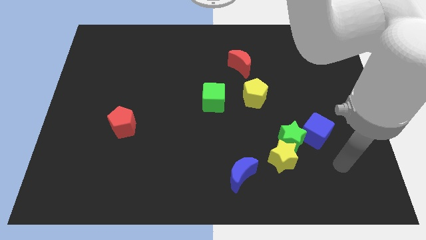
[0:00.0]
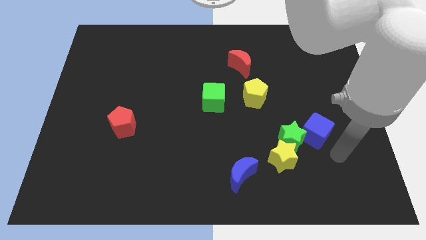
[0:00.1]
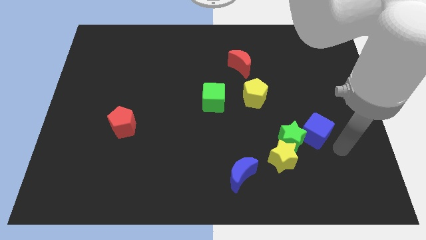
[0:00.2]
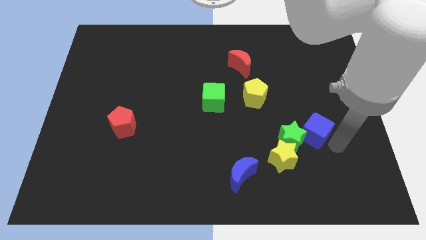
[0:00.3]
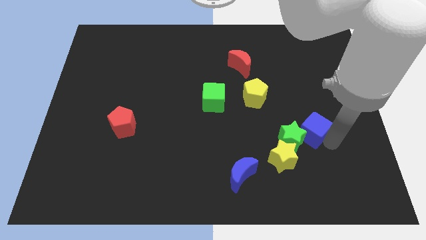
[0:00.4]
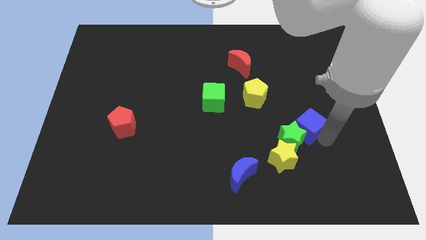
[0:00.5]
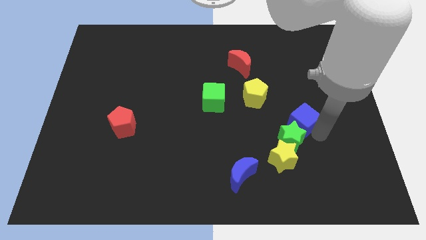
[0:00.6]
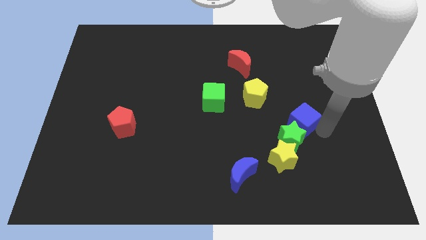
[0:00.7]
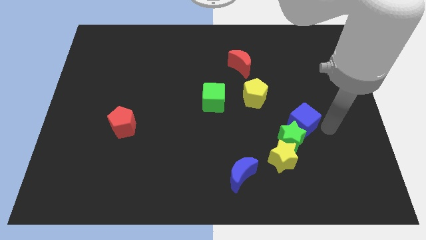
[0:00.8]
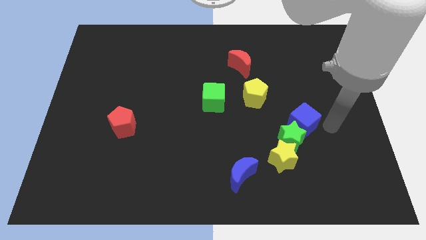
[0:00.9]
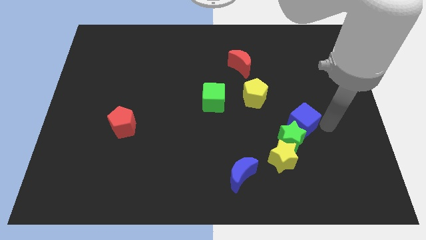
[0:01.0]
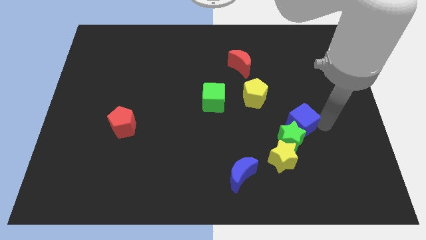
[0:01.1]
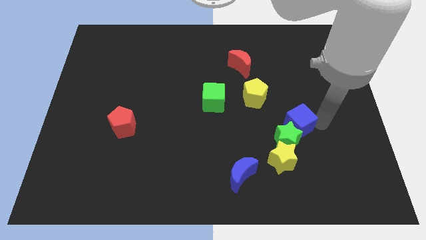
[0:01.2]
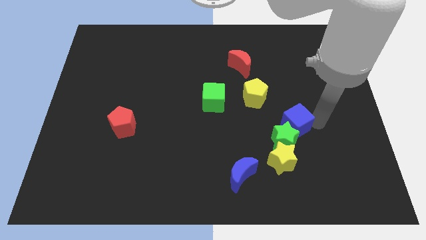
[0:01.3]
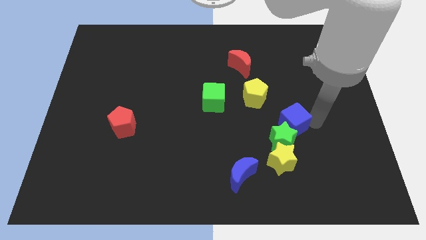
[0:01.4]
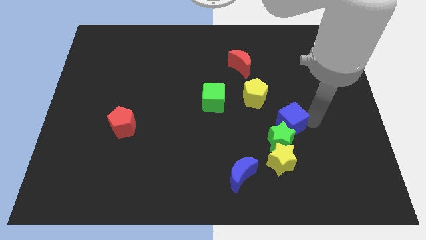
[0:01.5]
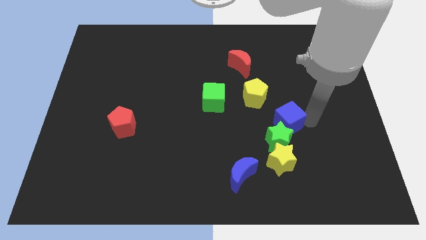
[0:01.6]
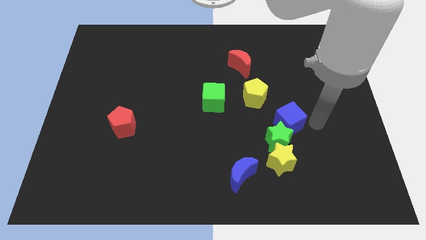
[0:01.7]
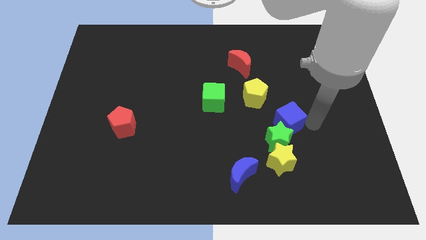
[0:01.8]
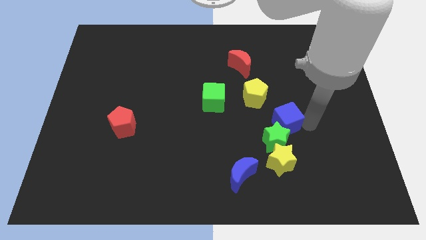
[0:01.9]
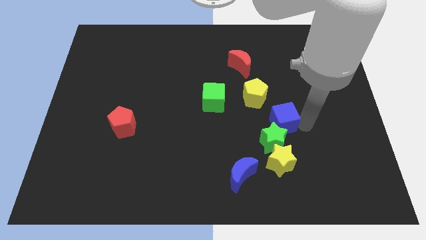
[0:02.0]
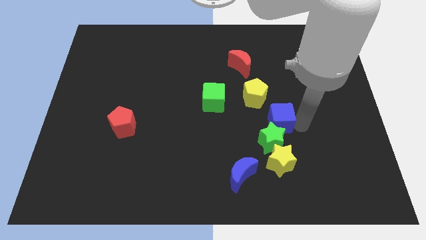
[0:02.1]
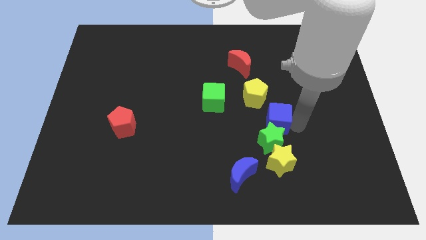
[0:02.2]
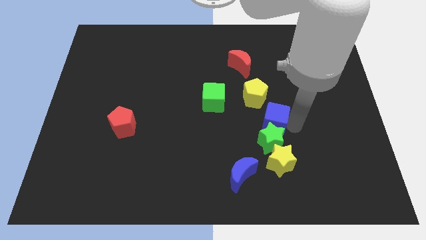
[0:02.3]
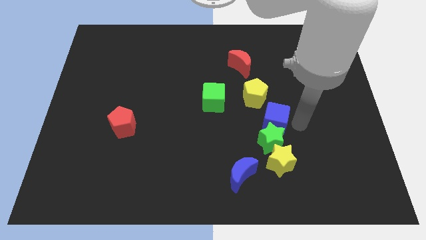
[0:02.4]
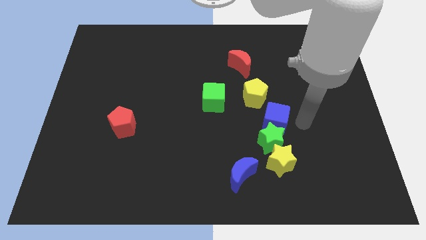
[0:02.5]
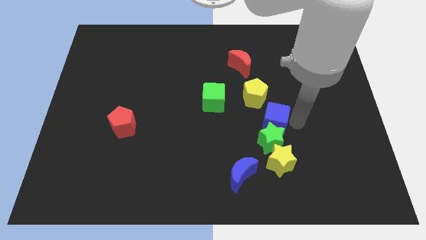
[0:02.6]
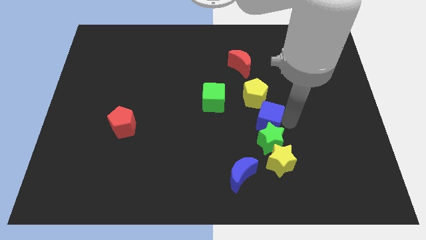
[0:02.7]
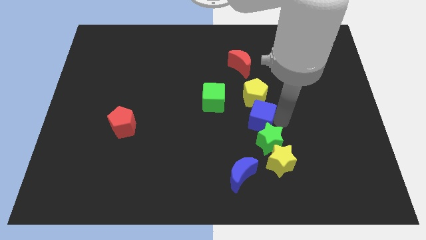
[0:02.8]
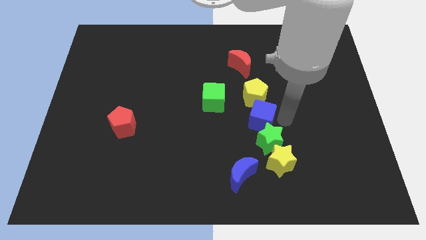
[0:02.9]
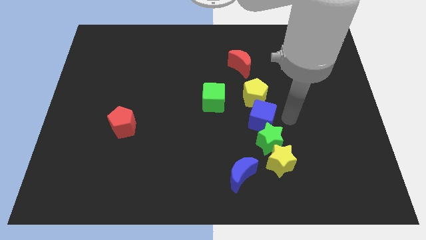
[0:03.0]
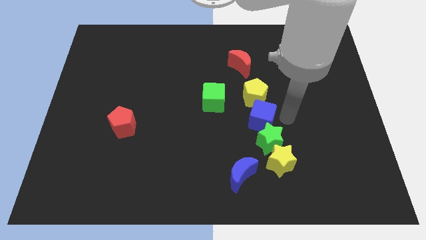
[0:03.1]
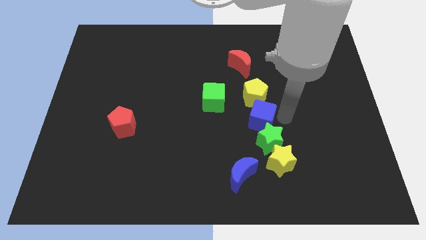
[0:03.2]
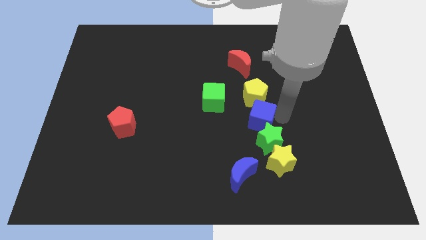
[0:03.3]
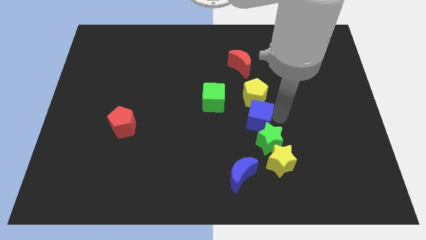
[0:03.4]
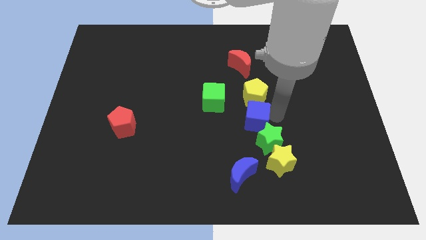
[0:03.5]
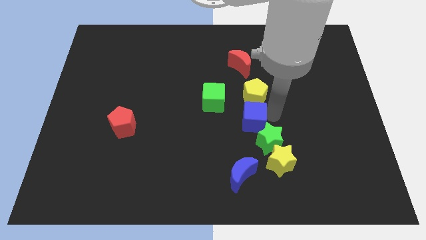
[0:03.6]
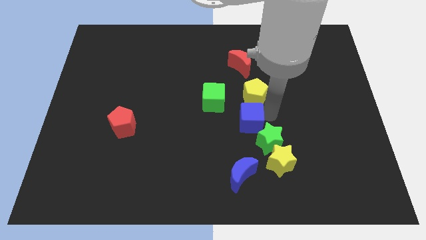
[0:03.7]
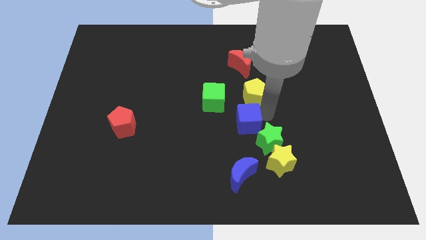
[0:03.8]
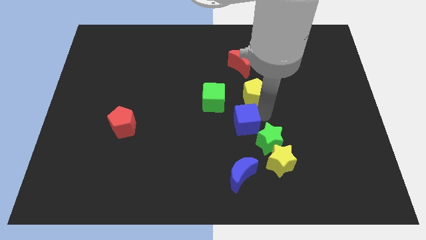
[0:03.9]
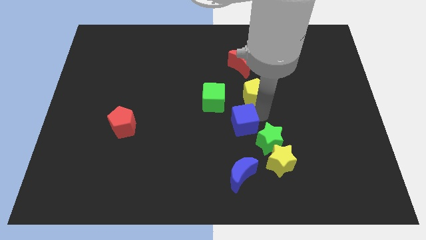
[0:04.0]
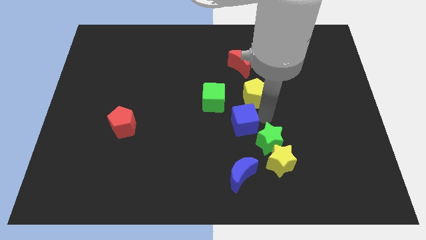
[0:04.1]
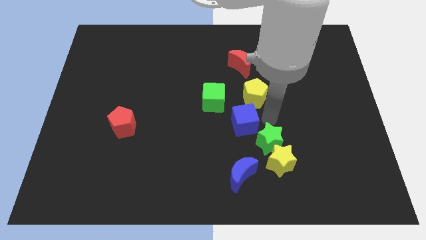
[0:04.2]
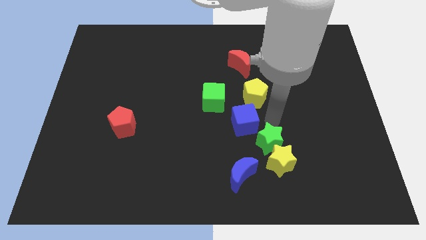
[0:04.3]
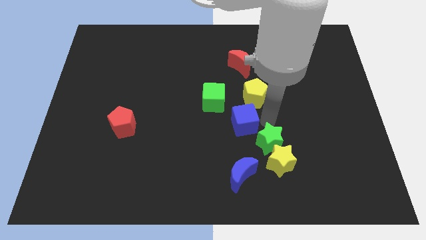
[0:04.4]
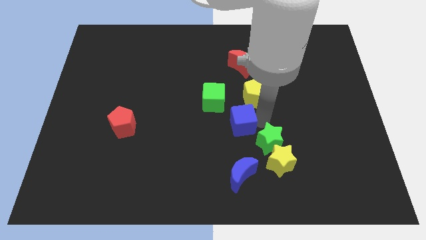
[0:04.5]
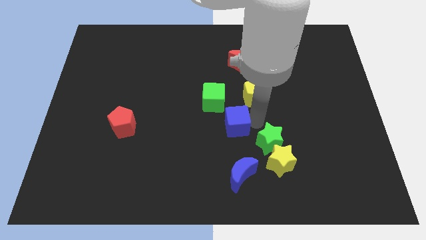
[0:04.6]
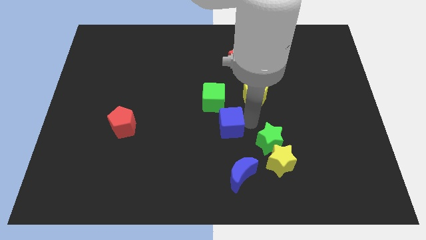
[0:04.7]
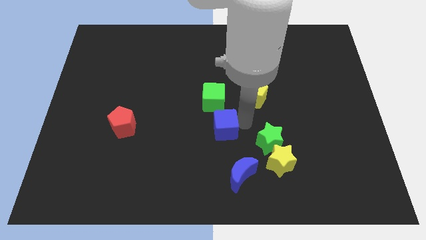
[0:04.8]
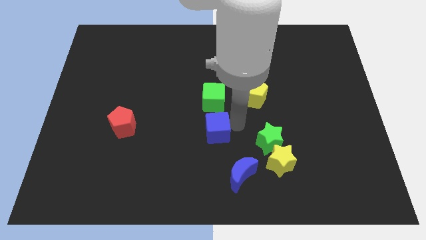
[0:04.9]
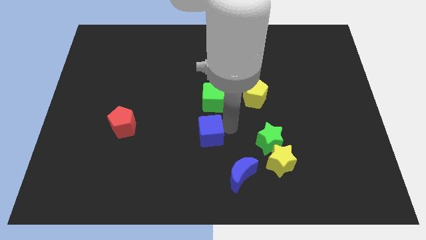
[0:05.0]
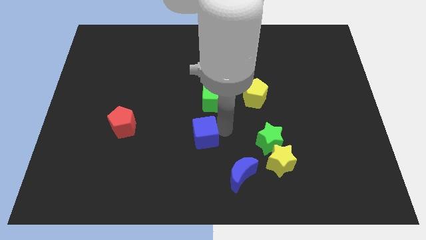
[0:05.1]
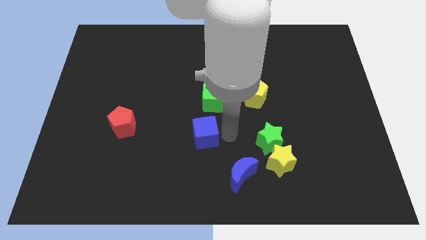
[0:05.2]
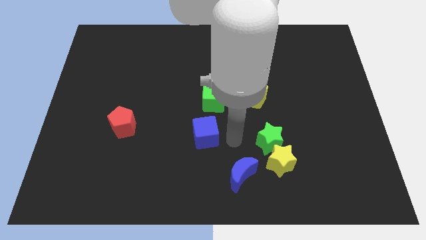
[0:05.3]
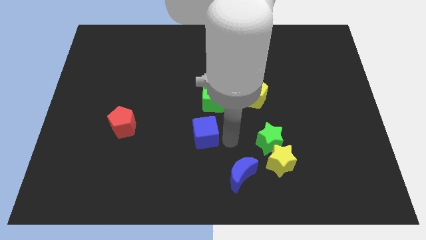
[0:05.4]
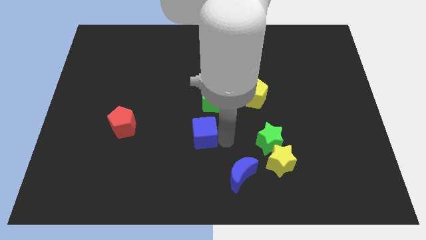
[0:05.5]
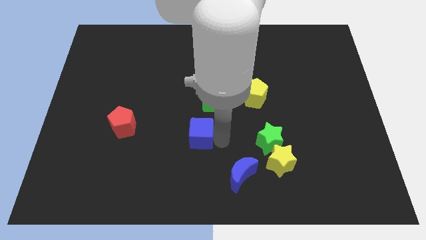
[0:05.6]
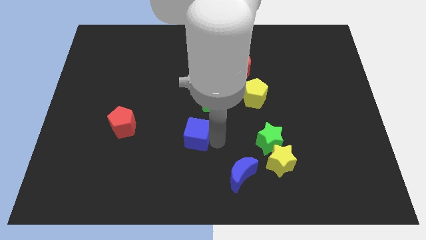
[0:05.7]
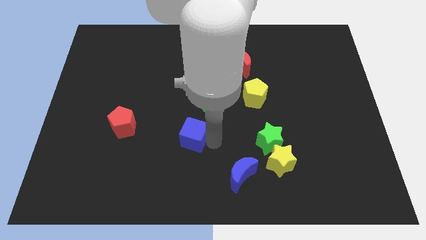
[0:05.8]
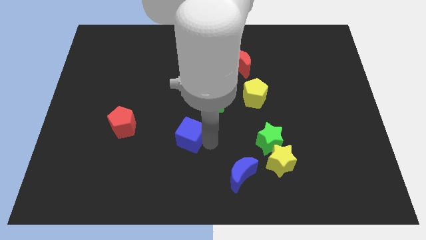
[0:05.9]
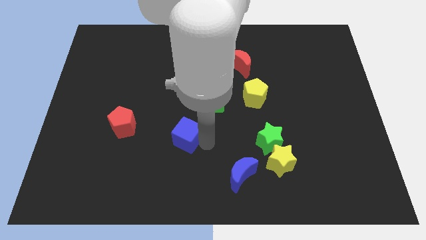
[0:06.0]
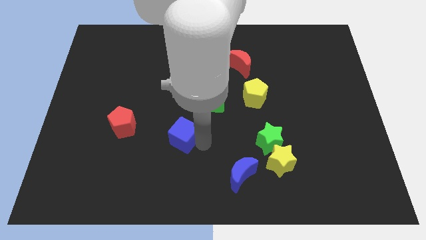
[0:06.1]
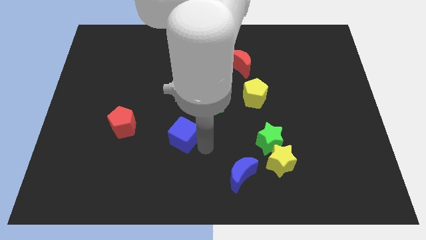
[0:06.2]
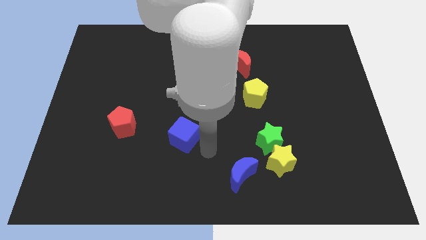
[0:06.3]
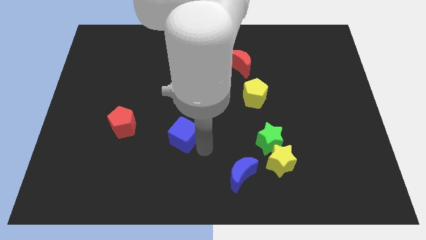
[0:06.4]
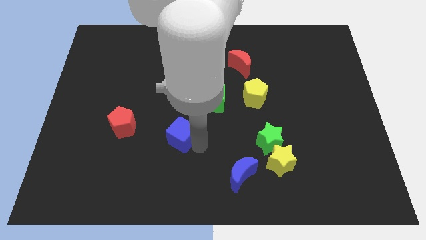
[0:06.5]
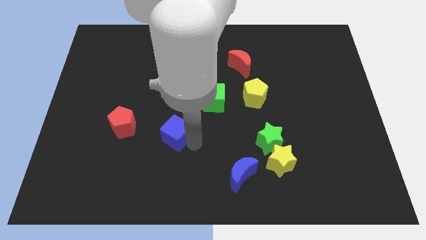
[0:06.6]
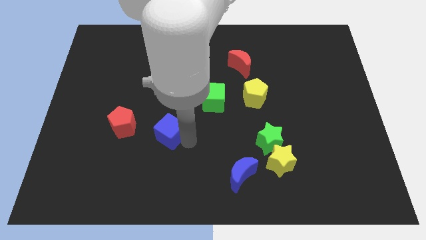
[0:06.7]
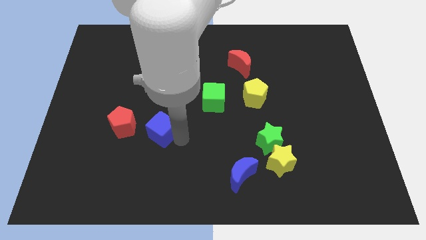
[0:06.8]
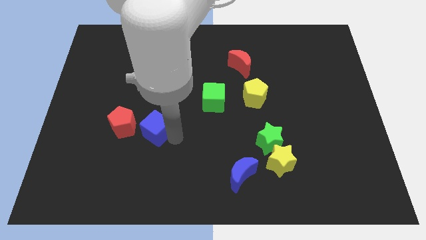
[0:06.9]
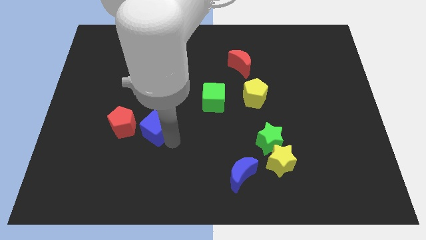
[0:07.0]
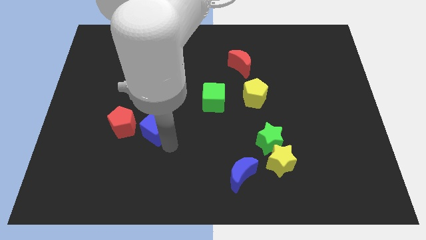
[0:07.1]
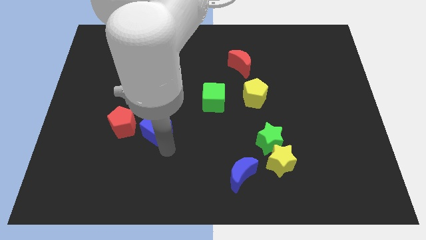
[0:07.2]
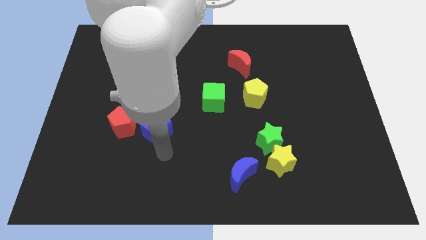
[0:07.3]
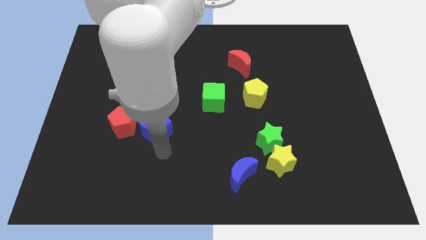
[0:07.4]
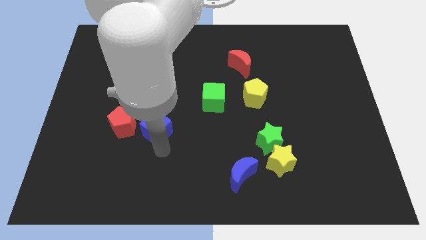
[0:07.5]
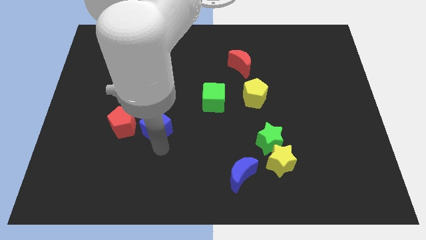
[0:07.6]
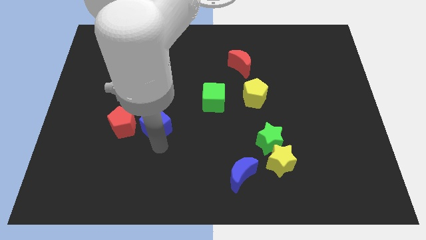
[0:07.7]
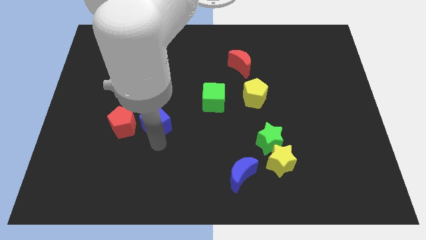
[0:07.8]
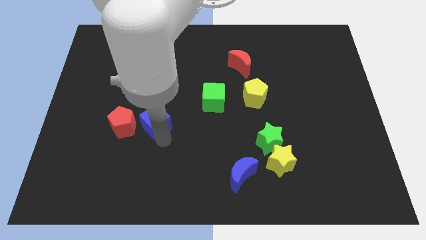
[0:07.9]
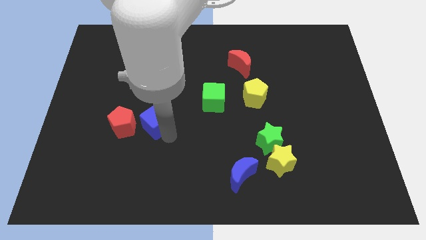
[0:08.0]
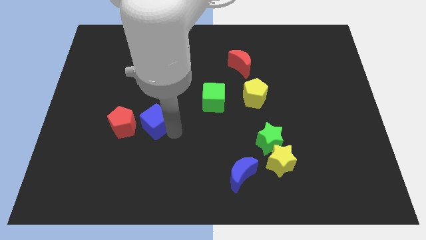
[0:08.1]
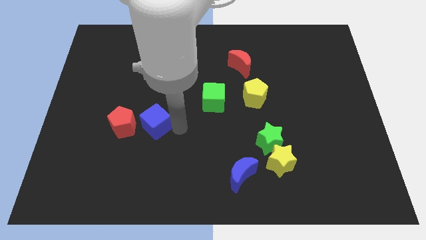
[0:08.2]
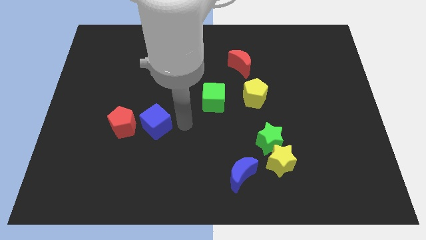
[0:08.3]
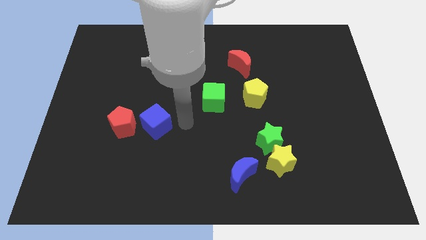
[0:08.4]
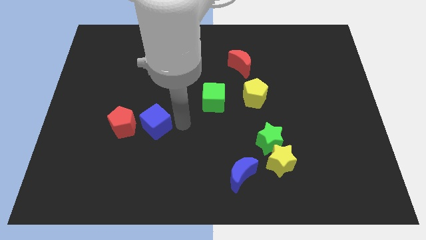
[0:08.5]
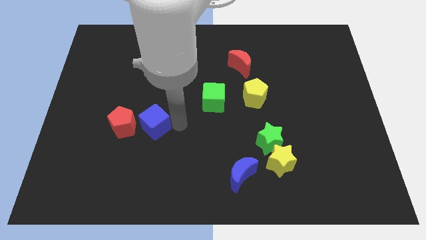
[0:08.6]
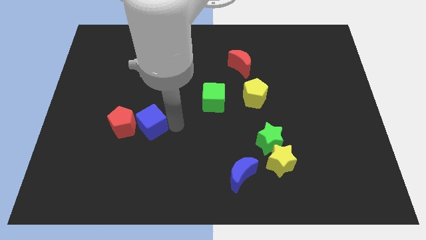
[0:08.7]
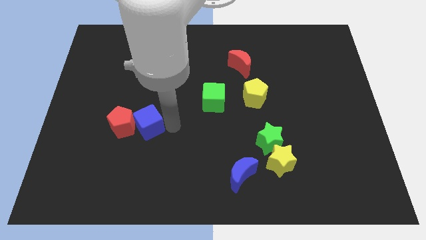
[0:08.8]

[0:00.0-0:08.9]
slide the blue cube to the red pentagon
